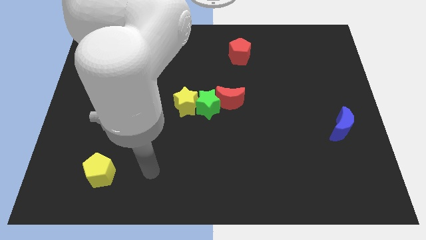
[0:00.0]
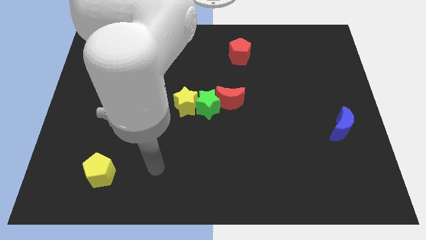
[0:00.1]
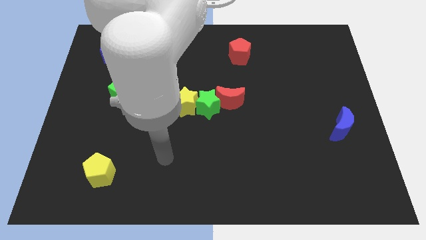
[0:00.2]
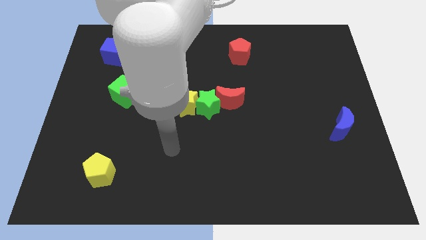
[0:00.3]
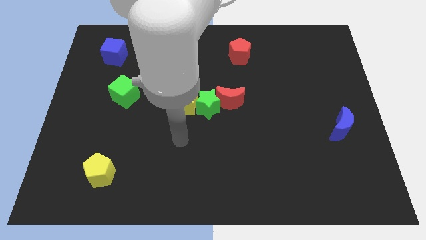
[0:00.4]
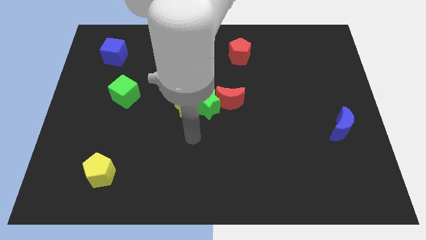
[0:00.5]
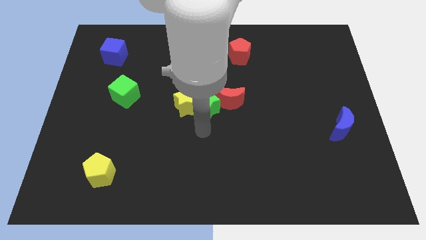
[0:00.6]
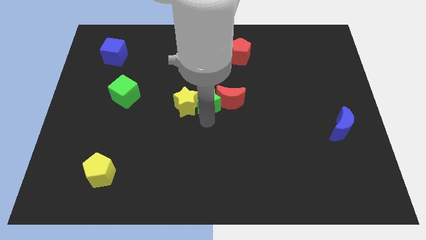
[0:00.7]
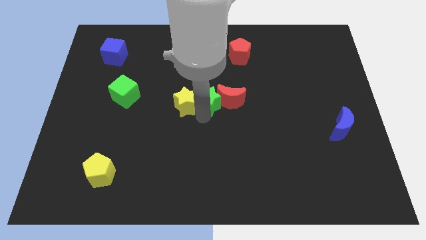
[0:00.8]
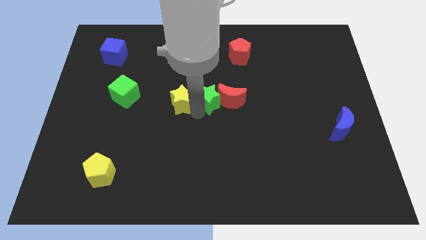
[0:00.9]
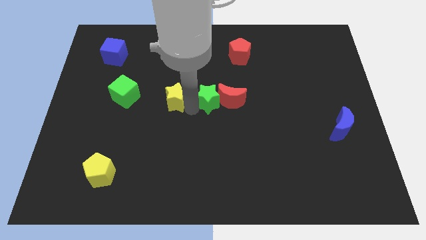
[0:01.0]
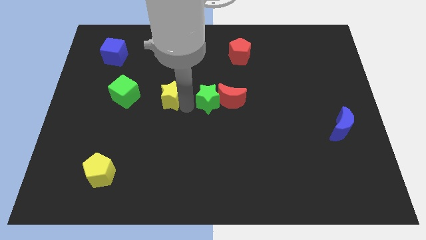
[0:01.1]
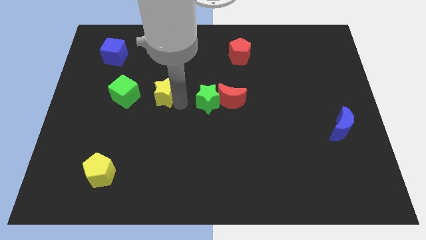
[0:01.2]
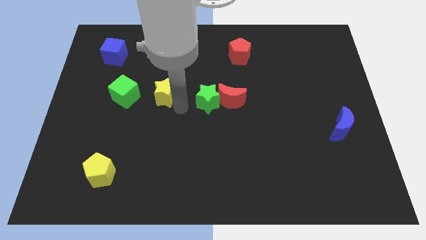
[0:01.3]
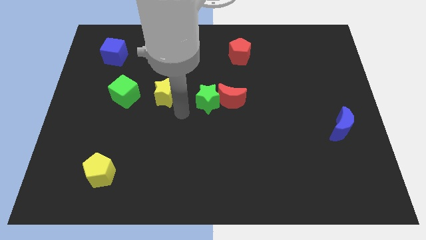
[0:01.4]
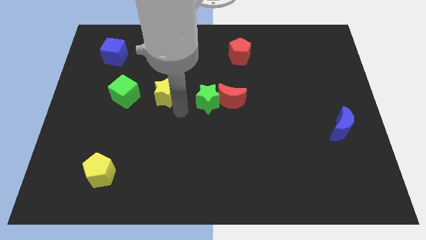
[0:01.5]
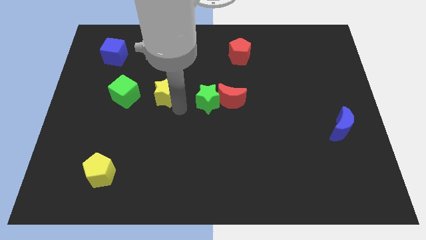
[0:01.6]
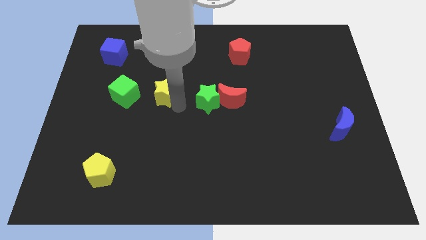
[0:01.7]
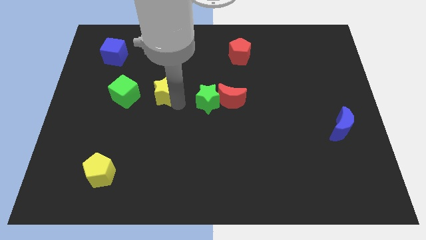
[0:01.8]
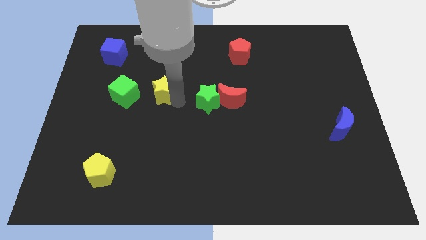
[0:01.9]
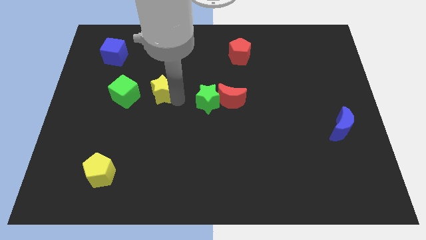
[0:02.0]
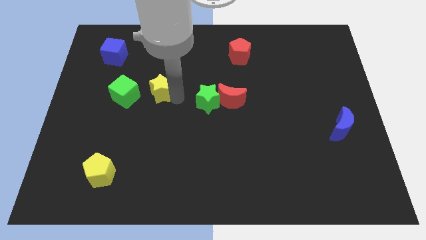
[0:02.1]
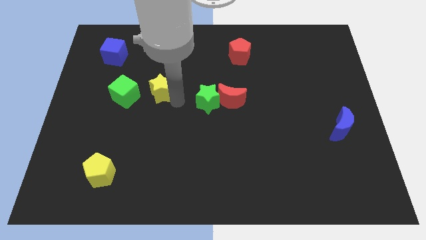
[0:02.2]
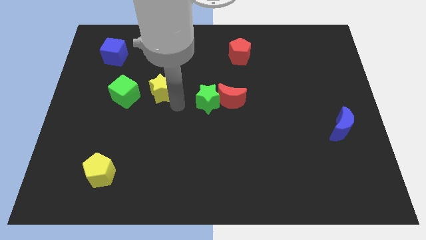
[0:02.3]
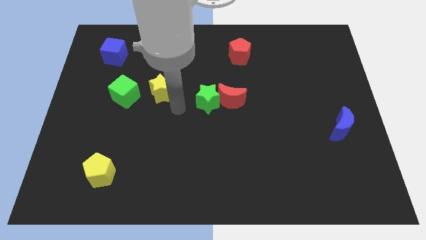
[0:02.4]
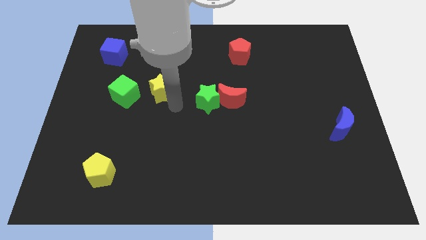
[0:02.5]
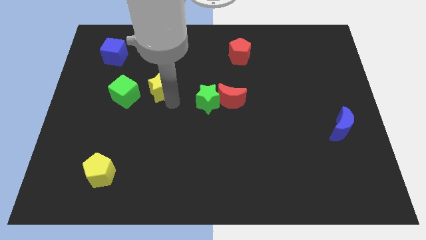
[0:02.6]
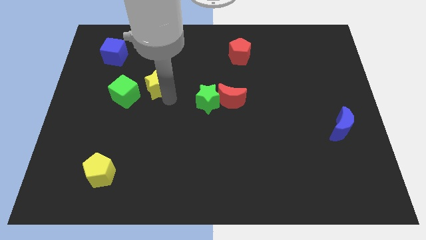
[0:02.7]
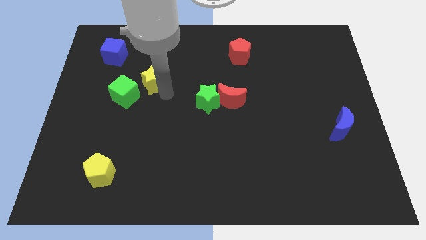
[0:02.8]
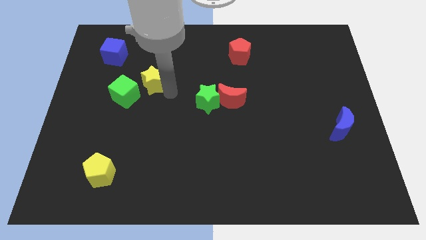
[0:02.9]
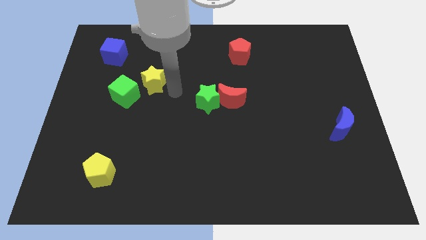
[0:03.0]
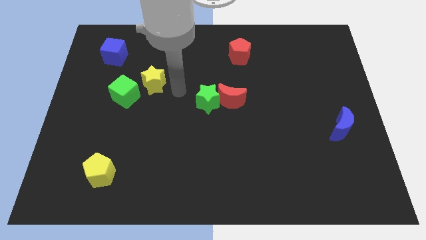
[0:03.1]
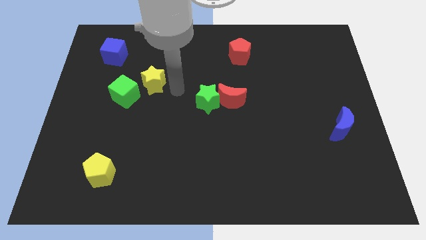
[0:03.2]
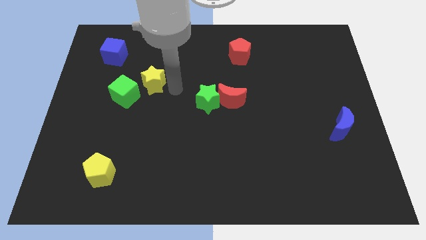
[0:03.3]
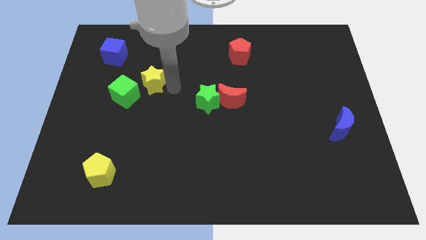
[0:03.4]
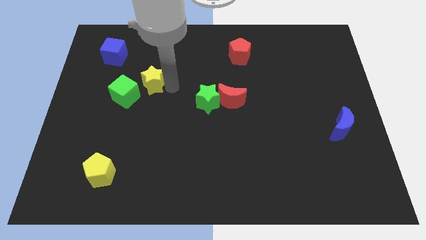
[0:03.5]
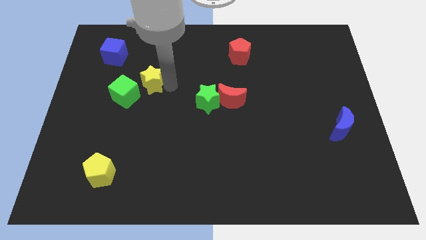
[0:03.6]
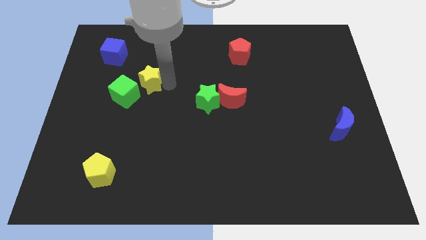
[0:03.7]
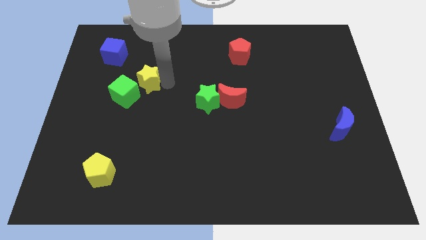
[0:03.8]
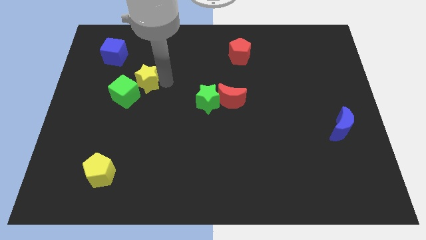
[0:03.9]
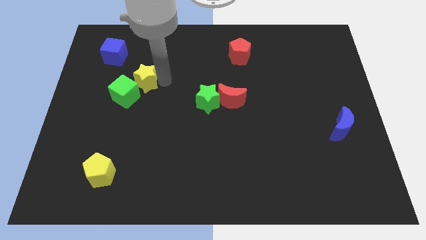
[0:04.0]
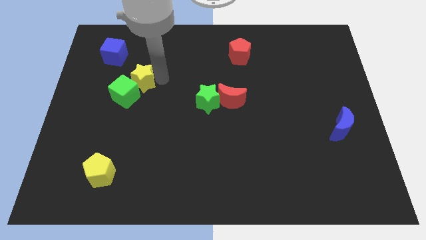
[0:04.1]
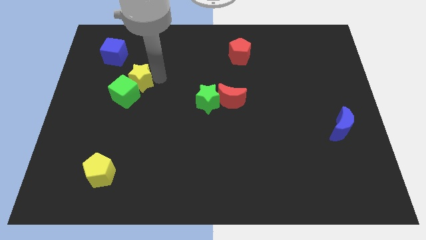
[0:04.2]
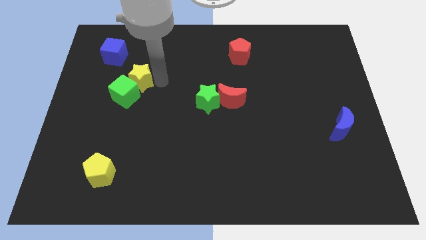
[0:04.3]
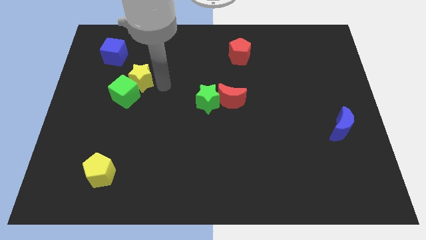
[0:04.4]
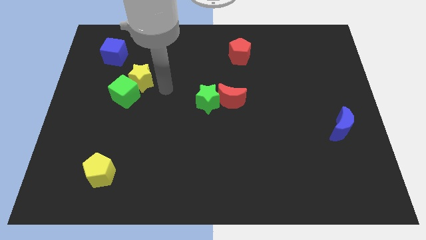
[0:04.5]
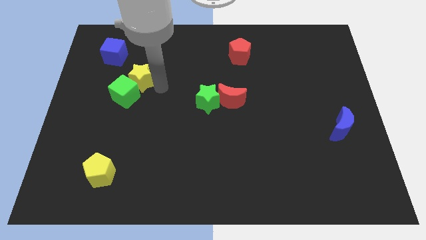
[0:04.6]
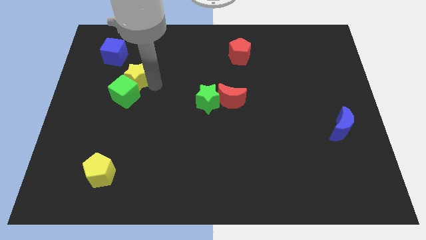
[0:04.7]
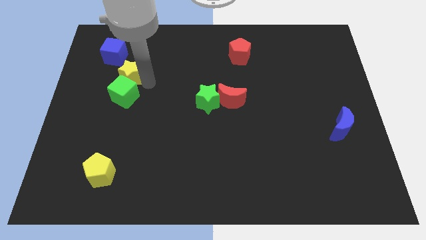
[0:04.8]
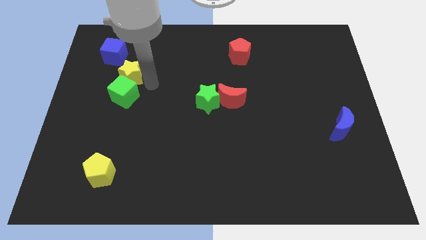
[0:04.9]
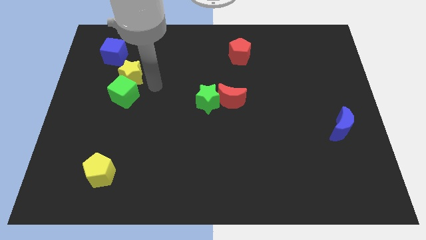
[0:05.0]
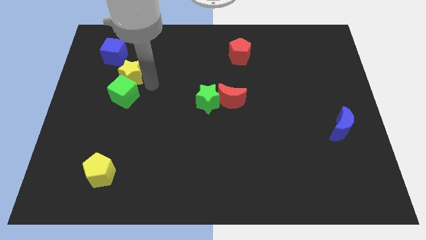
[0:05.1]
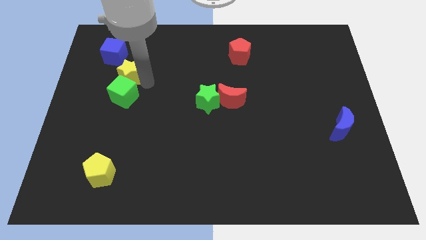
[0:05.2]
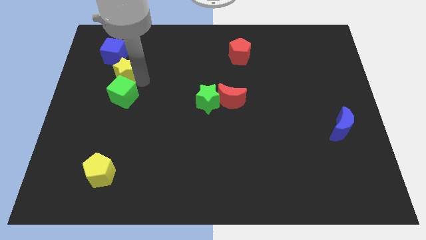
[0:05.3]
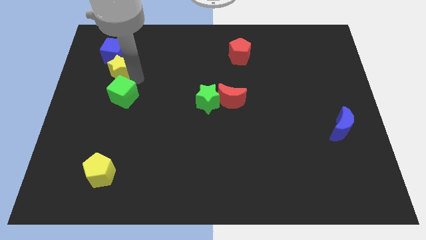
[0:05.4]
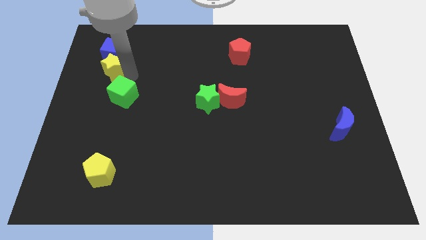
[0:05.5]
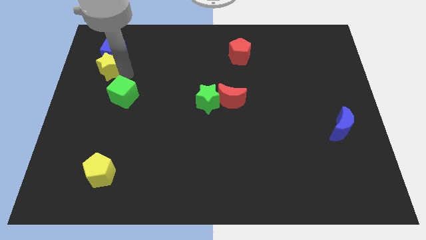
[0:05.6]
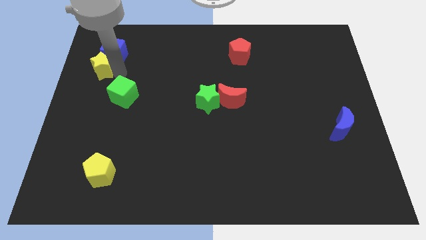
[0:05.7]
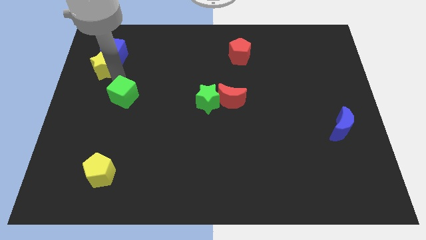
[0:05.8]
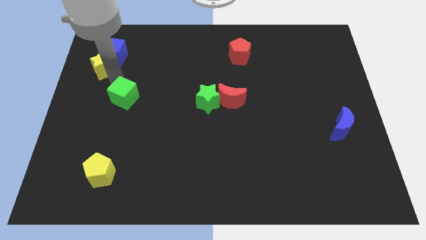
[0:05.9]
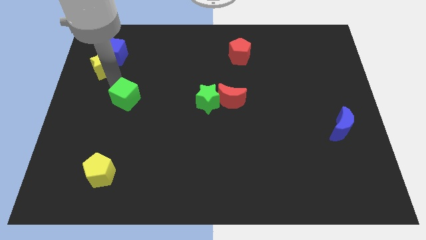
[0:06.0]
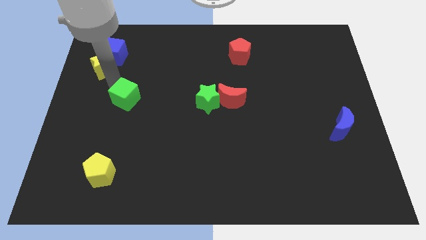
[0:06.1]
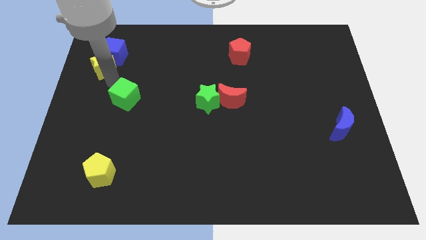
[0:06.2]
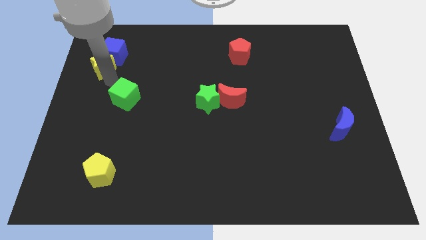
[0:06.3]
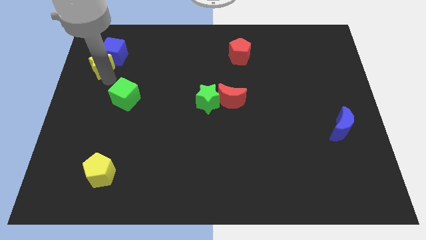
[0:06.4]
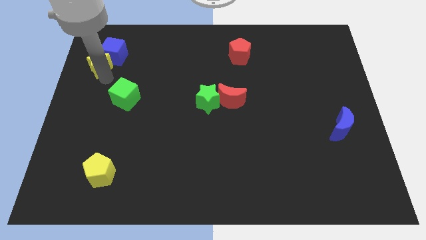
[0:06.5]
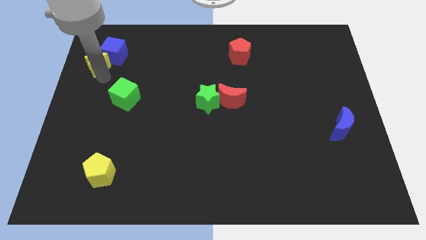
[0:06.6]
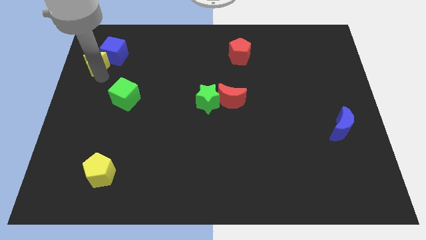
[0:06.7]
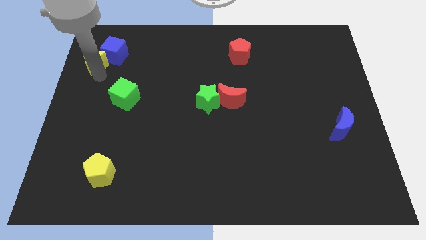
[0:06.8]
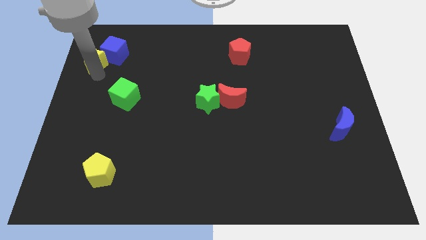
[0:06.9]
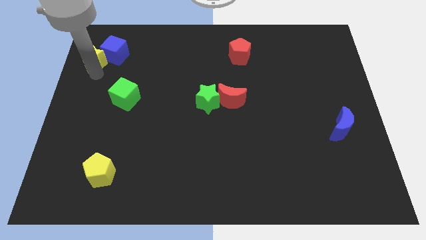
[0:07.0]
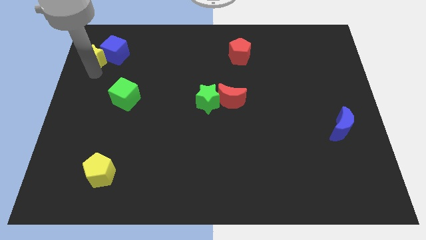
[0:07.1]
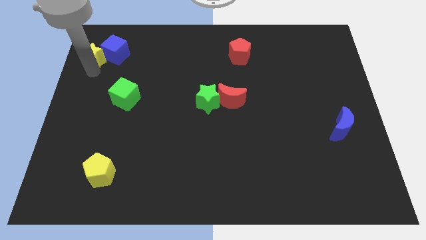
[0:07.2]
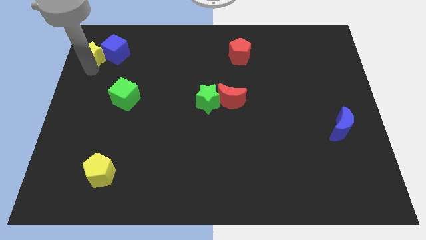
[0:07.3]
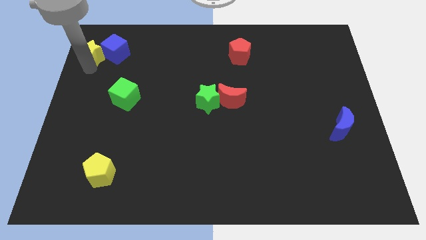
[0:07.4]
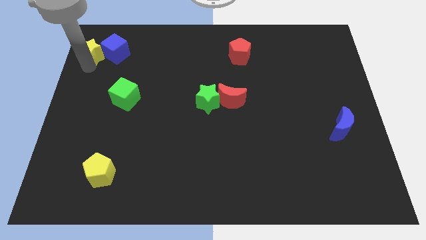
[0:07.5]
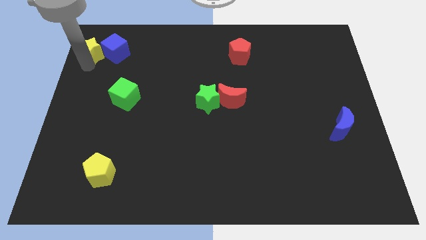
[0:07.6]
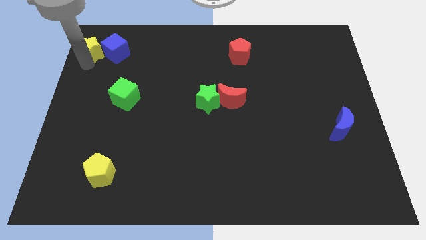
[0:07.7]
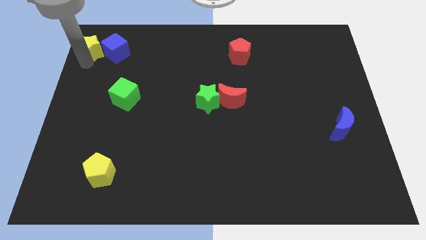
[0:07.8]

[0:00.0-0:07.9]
push the yellow star to the top left of the board
